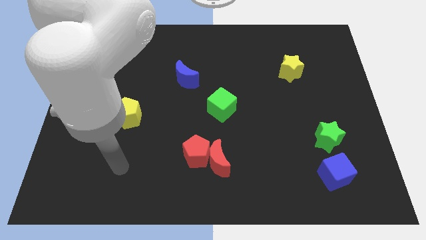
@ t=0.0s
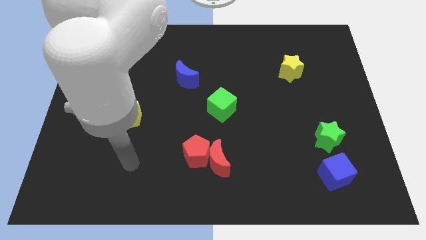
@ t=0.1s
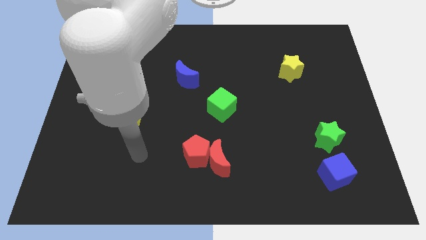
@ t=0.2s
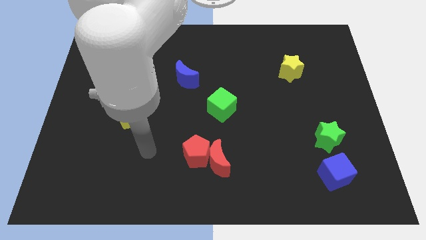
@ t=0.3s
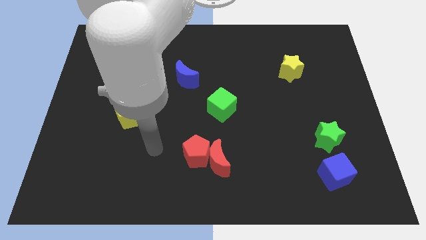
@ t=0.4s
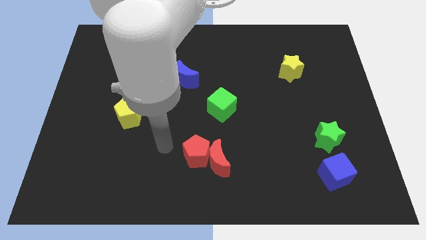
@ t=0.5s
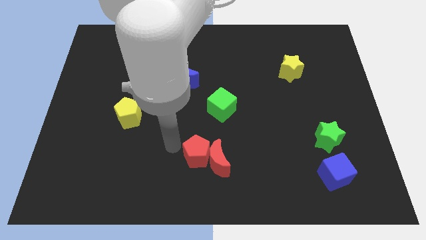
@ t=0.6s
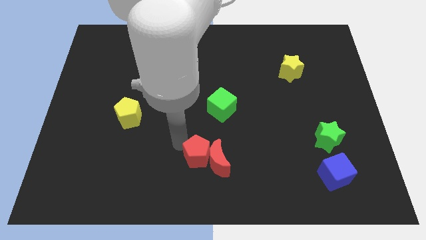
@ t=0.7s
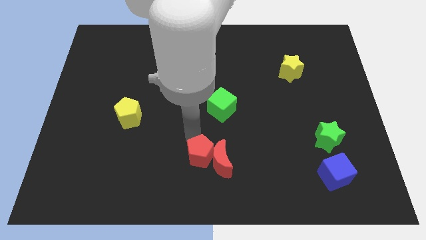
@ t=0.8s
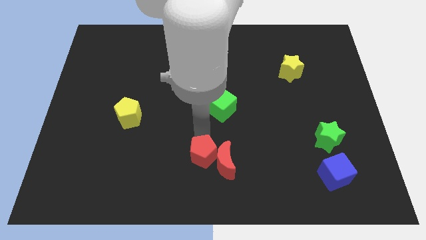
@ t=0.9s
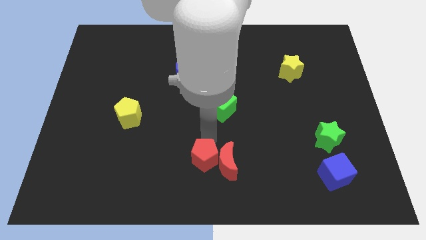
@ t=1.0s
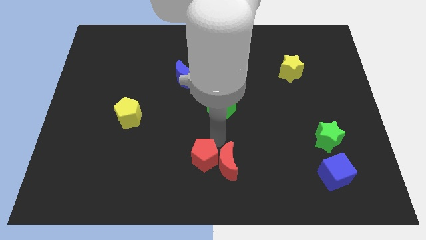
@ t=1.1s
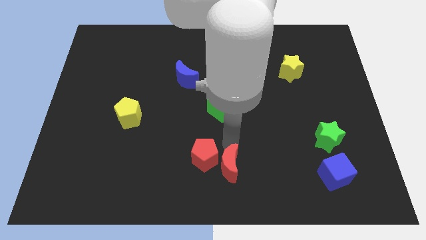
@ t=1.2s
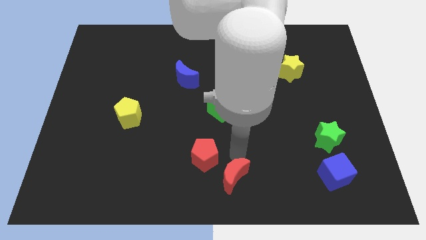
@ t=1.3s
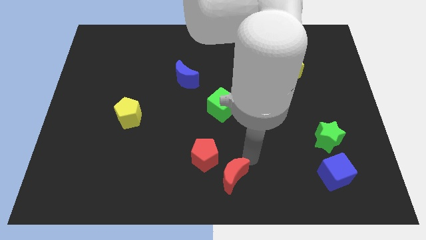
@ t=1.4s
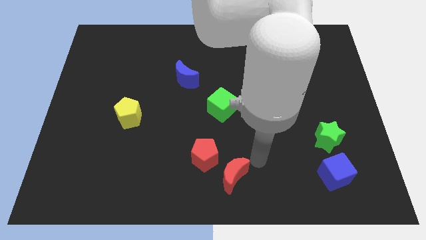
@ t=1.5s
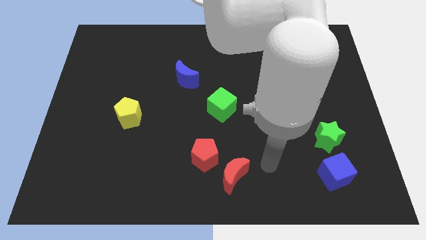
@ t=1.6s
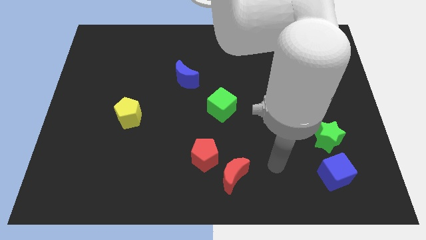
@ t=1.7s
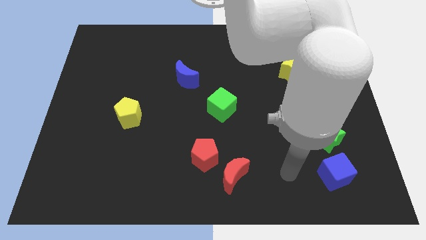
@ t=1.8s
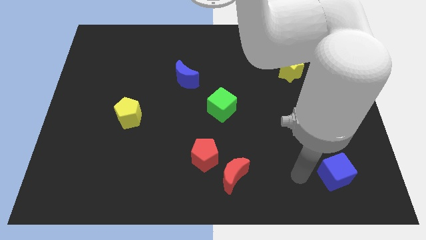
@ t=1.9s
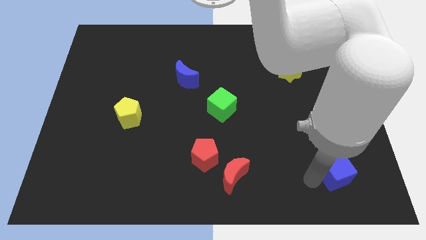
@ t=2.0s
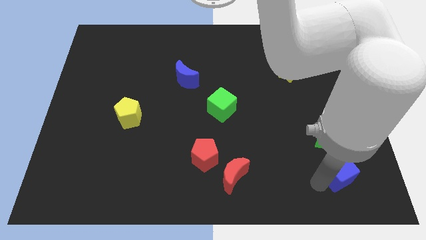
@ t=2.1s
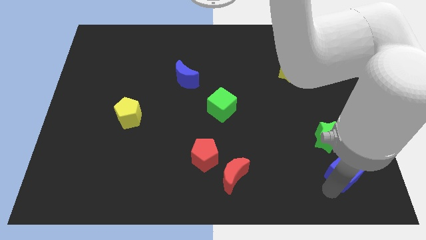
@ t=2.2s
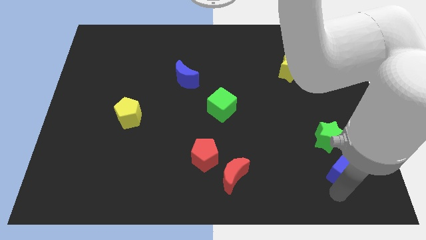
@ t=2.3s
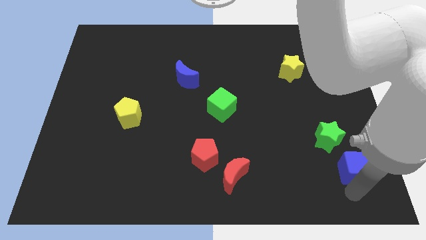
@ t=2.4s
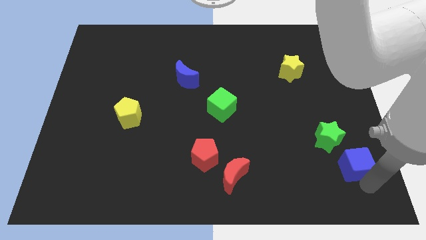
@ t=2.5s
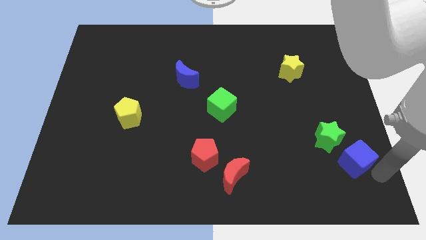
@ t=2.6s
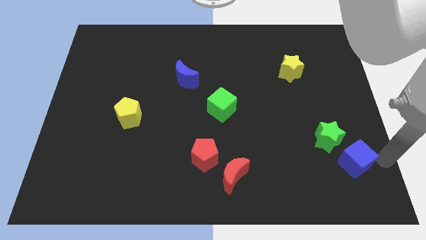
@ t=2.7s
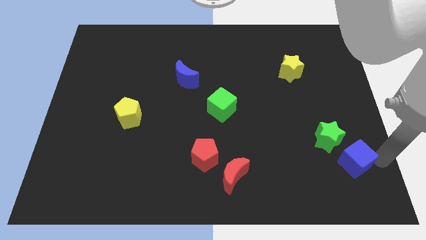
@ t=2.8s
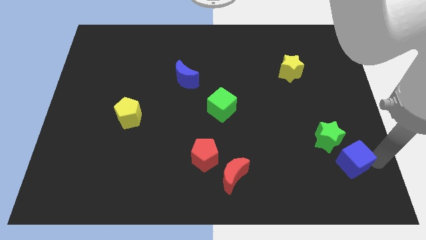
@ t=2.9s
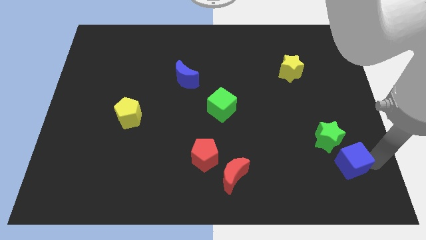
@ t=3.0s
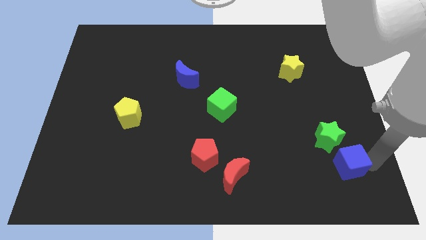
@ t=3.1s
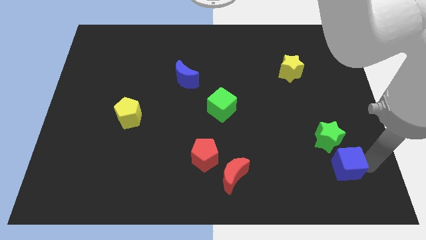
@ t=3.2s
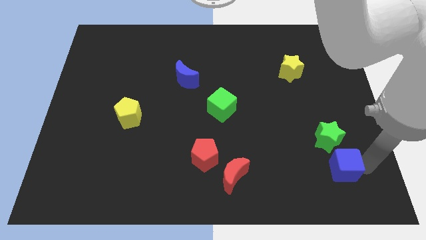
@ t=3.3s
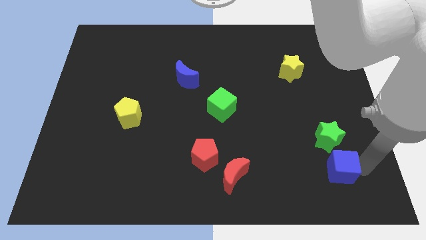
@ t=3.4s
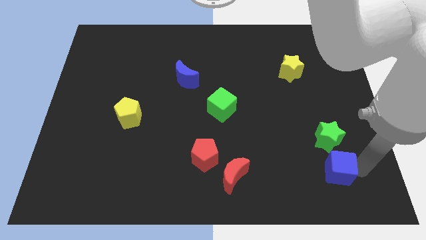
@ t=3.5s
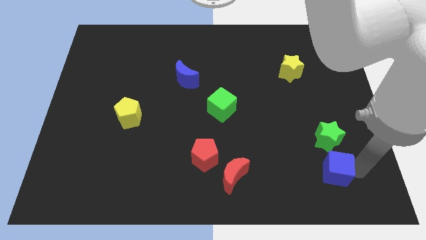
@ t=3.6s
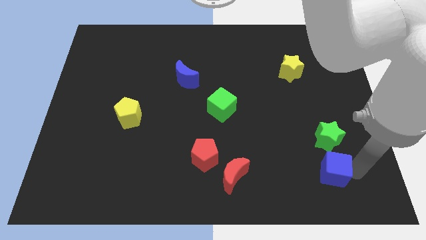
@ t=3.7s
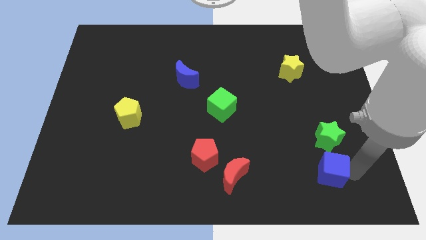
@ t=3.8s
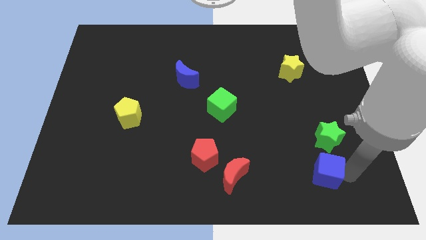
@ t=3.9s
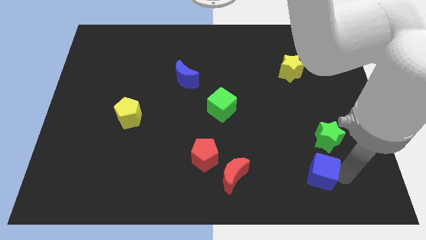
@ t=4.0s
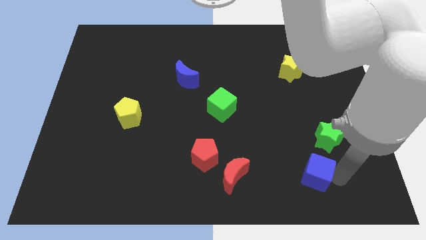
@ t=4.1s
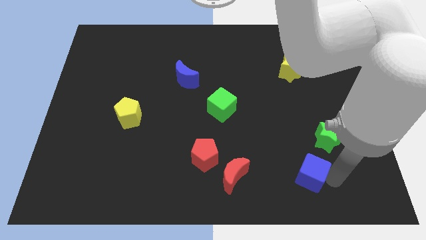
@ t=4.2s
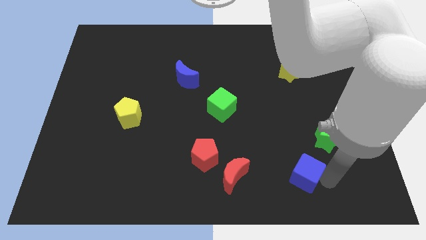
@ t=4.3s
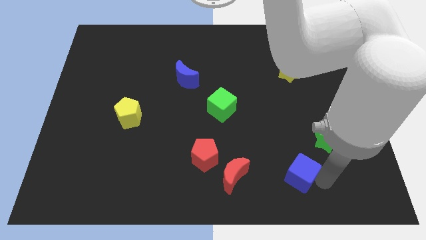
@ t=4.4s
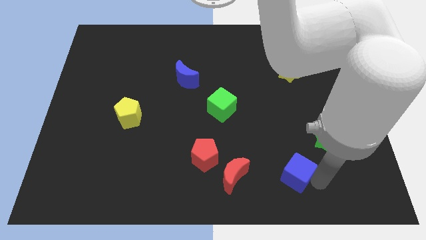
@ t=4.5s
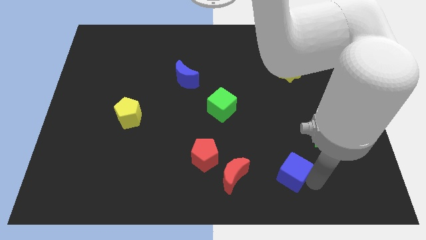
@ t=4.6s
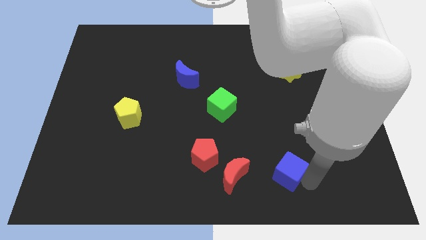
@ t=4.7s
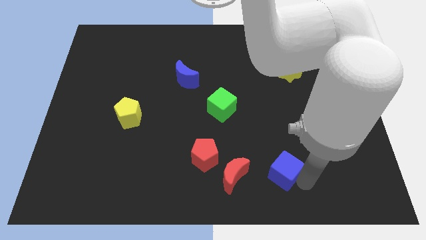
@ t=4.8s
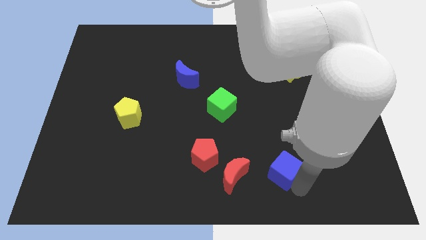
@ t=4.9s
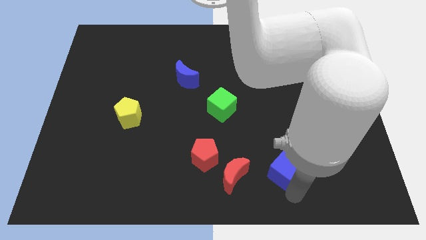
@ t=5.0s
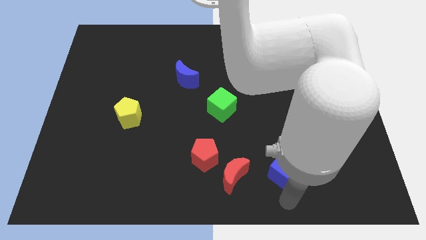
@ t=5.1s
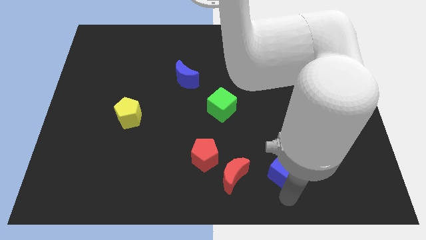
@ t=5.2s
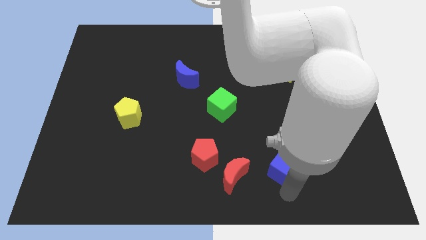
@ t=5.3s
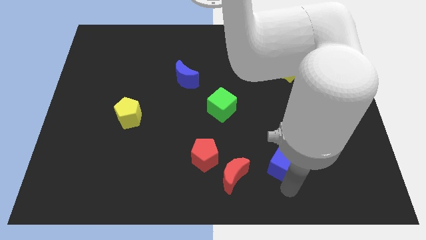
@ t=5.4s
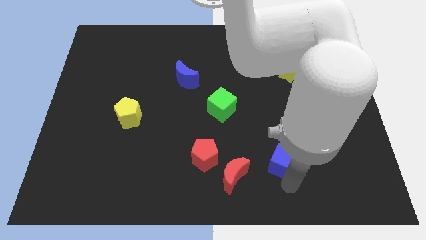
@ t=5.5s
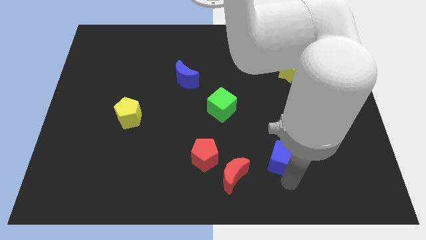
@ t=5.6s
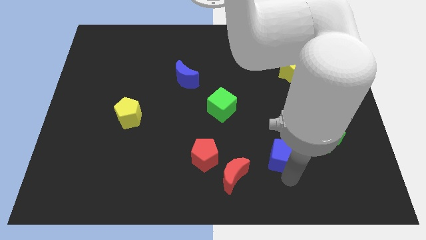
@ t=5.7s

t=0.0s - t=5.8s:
slide the blue cube to the left of the green star

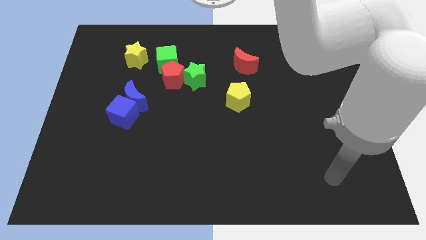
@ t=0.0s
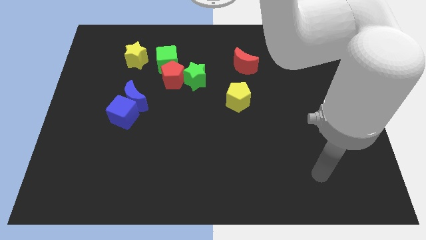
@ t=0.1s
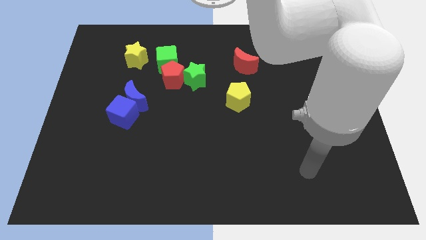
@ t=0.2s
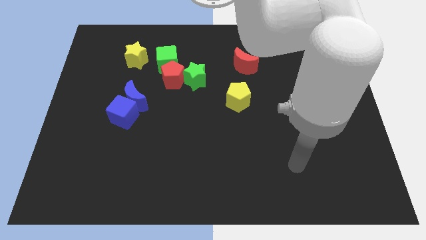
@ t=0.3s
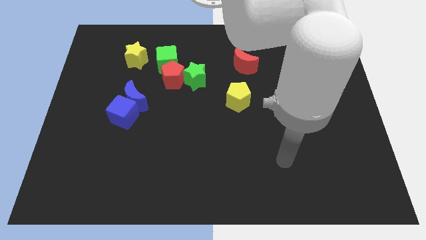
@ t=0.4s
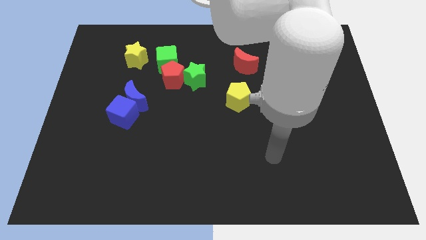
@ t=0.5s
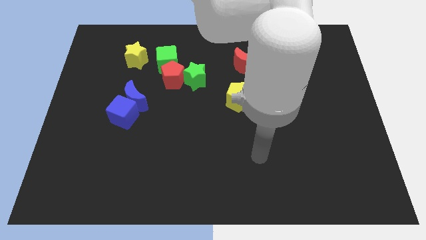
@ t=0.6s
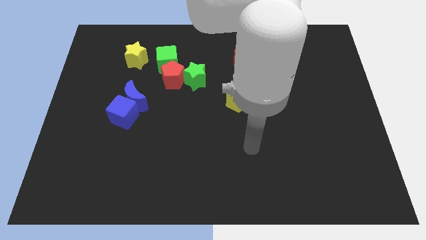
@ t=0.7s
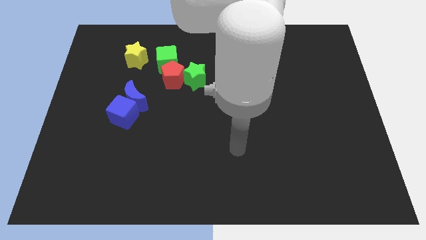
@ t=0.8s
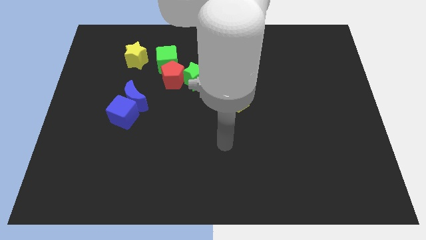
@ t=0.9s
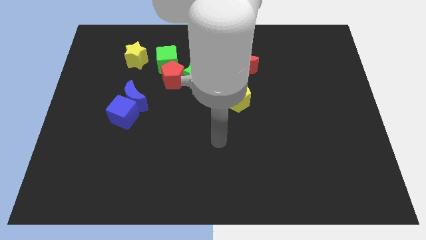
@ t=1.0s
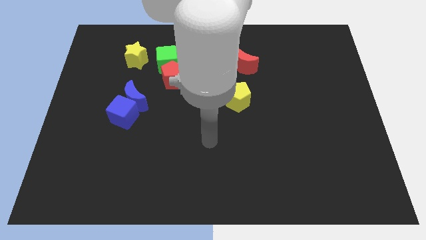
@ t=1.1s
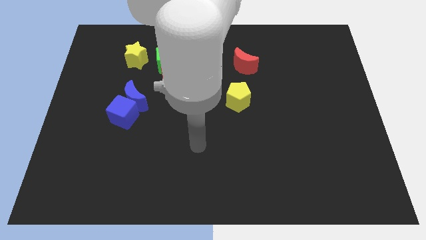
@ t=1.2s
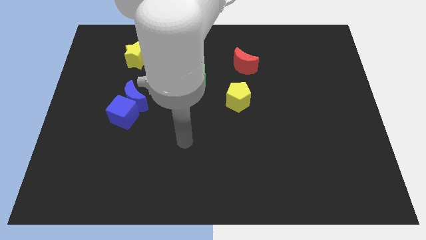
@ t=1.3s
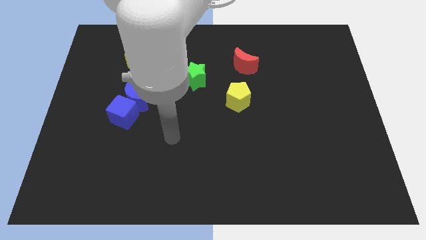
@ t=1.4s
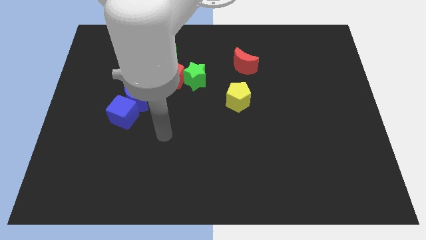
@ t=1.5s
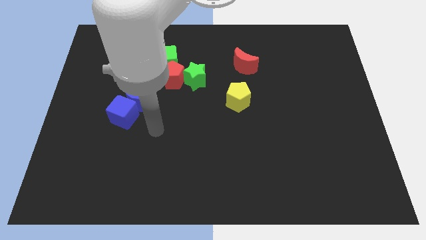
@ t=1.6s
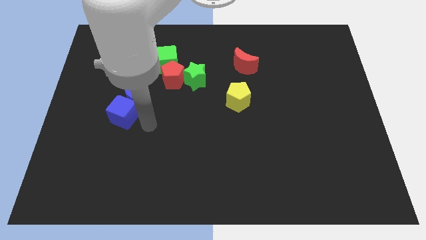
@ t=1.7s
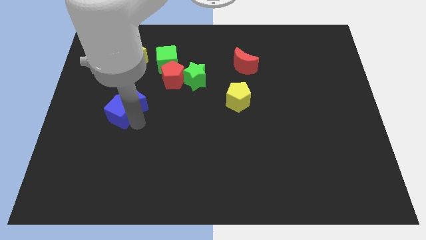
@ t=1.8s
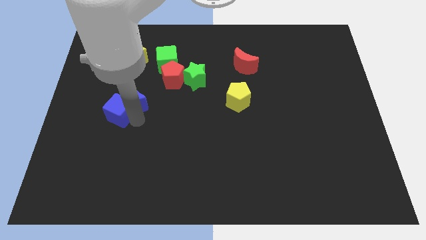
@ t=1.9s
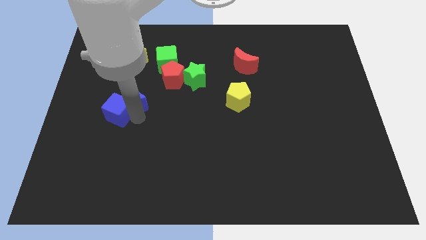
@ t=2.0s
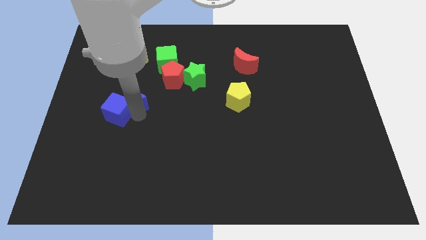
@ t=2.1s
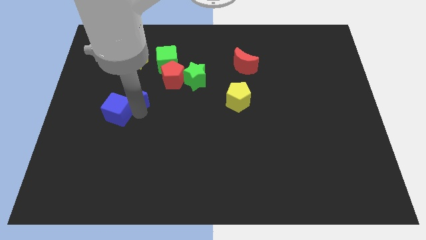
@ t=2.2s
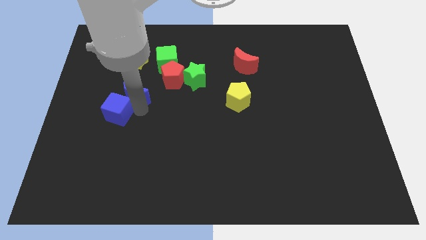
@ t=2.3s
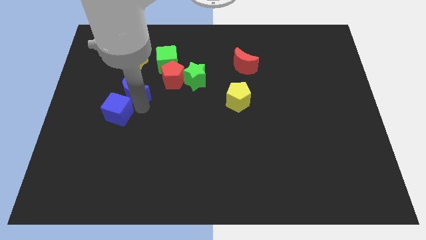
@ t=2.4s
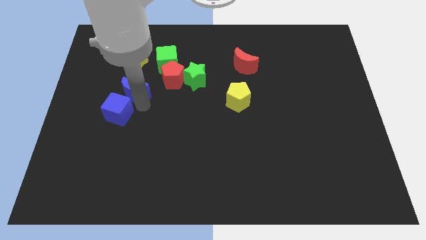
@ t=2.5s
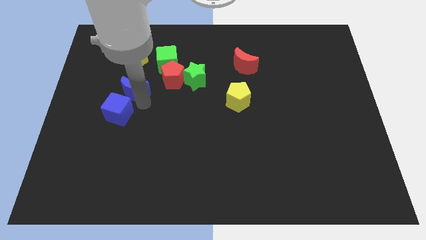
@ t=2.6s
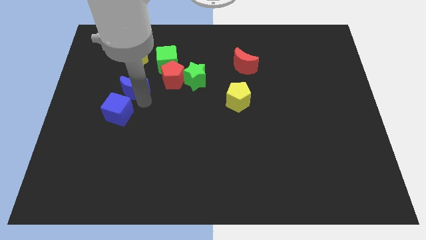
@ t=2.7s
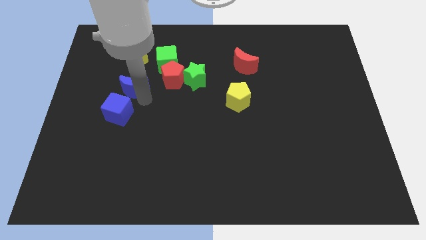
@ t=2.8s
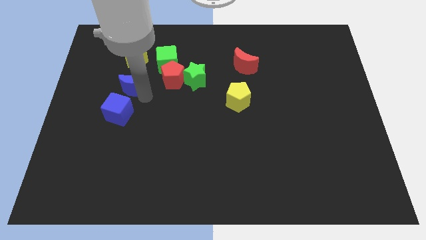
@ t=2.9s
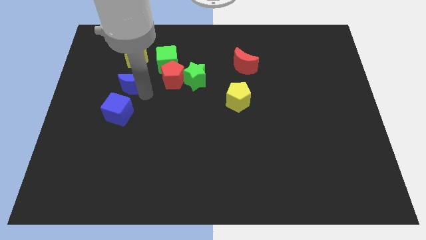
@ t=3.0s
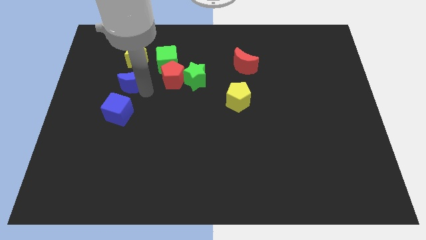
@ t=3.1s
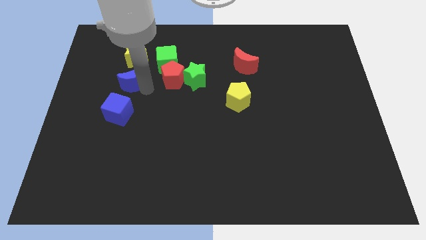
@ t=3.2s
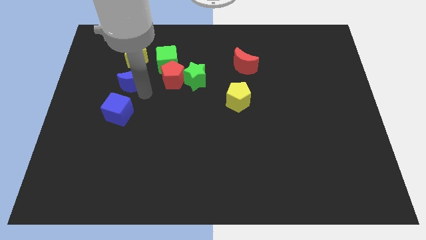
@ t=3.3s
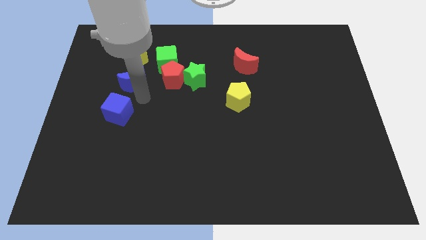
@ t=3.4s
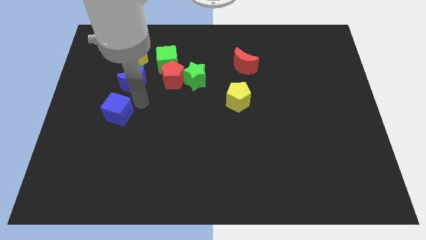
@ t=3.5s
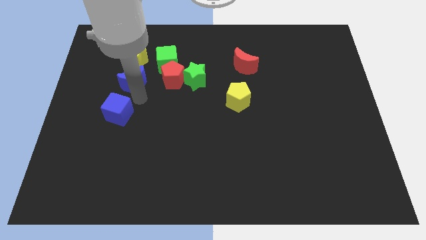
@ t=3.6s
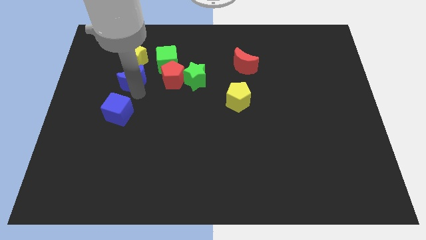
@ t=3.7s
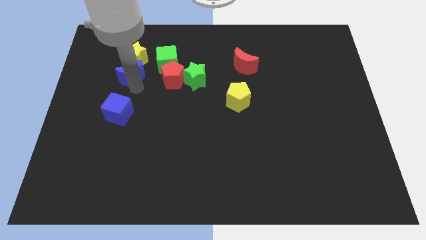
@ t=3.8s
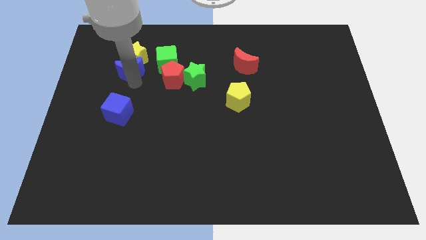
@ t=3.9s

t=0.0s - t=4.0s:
push the blue moon just left of the green cube
